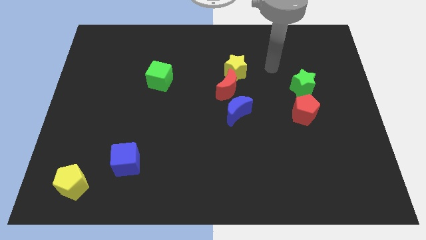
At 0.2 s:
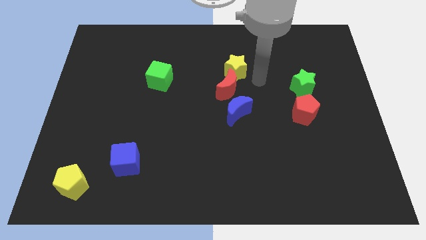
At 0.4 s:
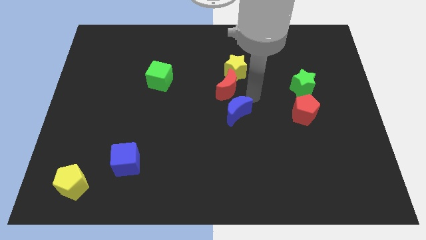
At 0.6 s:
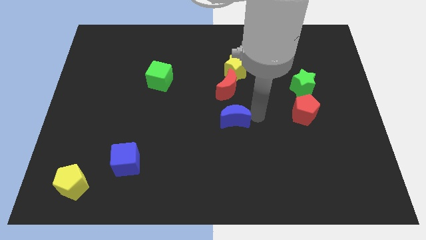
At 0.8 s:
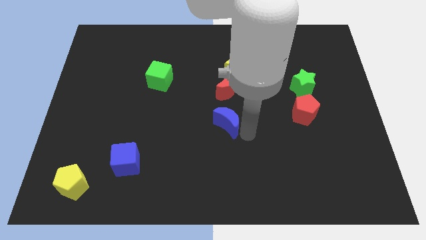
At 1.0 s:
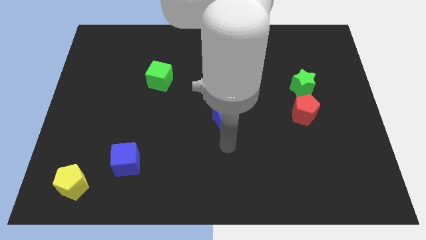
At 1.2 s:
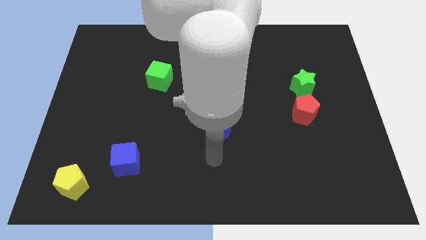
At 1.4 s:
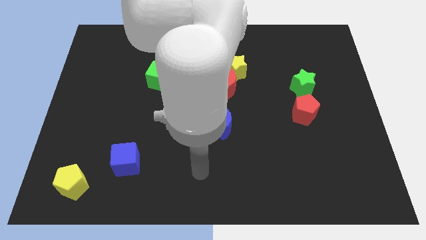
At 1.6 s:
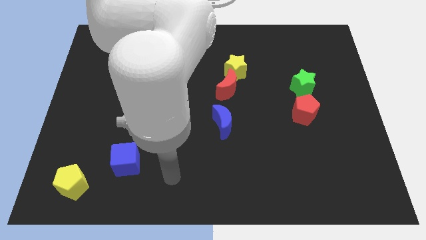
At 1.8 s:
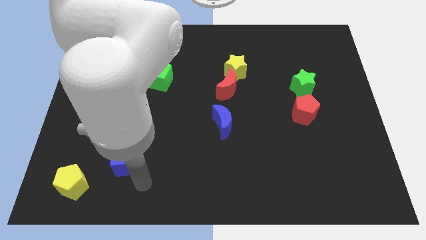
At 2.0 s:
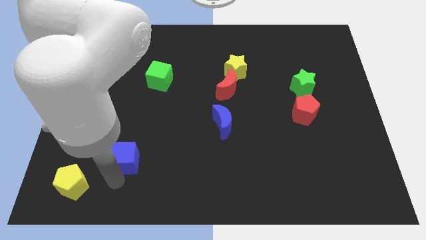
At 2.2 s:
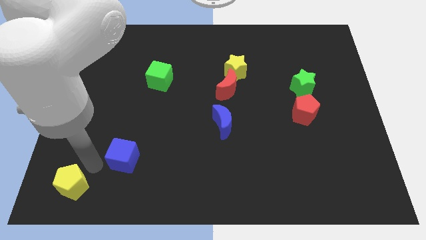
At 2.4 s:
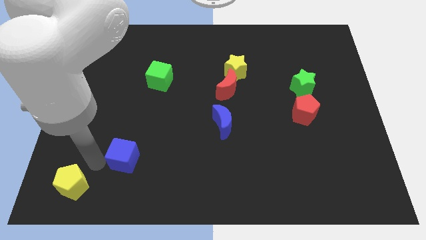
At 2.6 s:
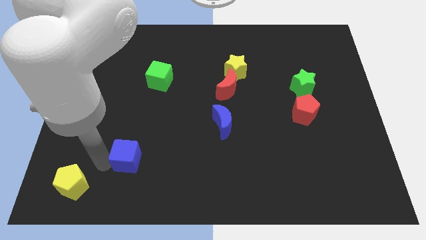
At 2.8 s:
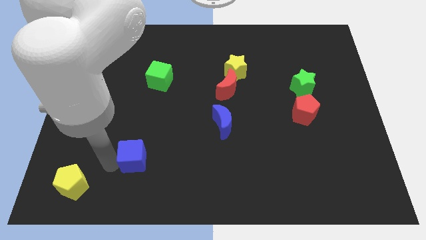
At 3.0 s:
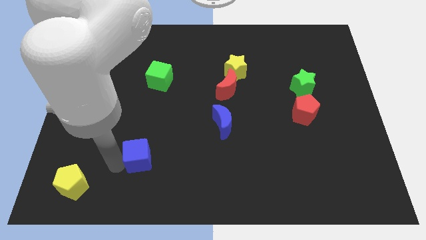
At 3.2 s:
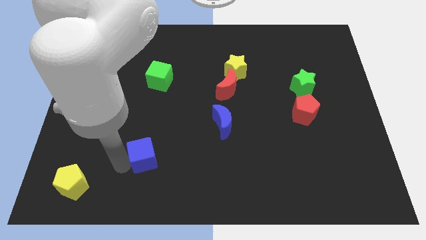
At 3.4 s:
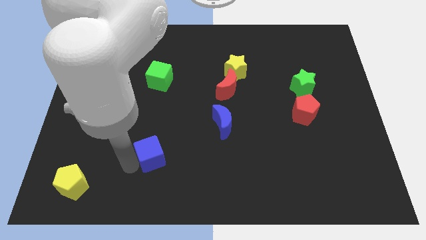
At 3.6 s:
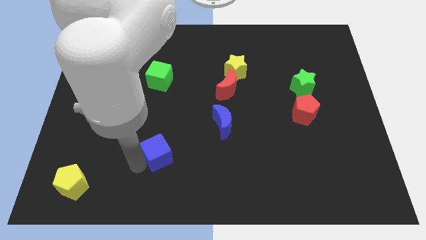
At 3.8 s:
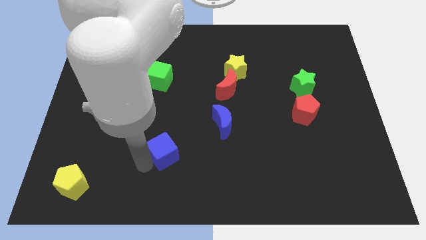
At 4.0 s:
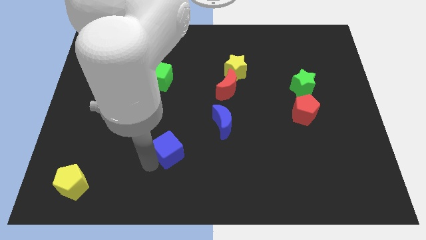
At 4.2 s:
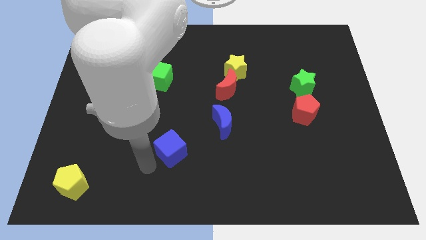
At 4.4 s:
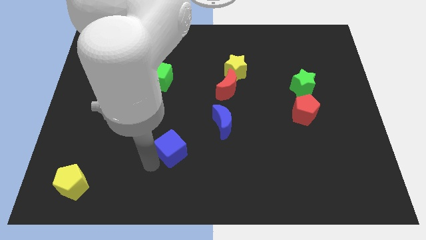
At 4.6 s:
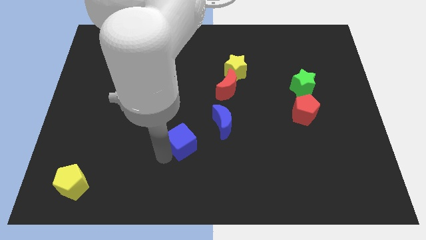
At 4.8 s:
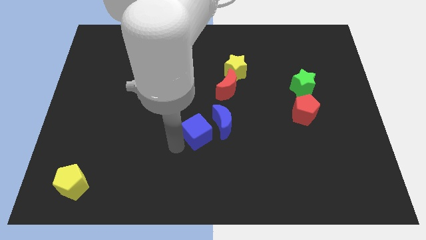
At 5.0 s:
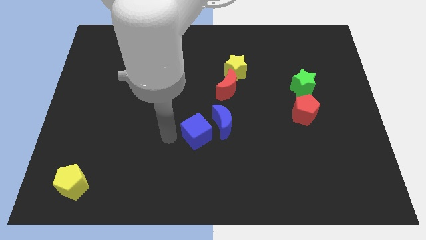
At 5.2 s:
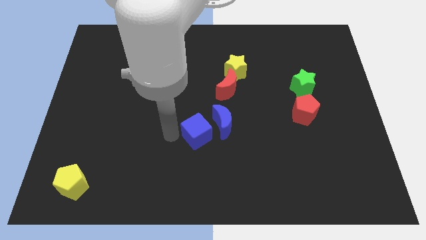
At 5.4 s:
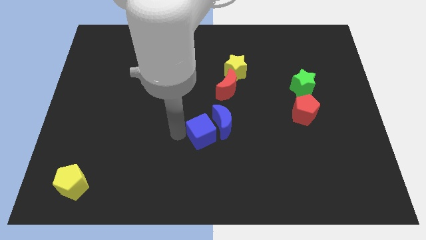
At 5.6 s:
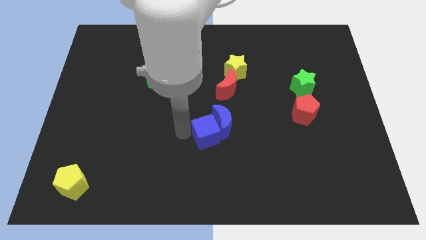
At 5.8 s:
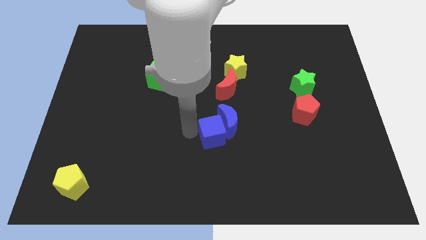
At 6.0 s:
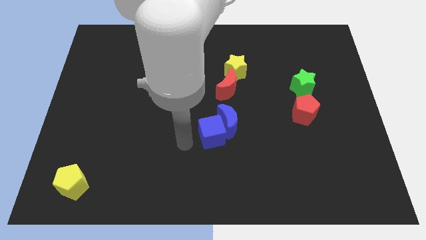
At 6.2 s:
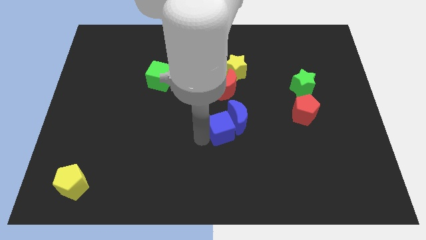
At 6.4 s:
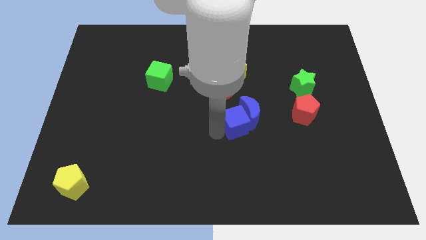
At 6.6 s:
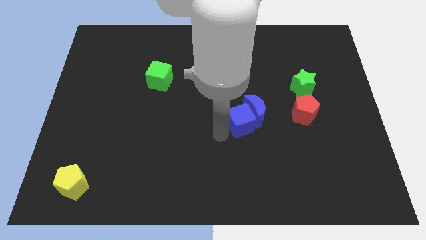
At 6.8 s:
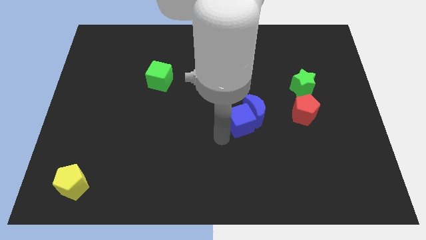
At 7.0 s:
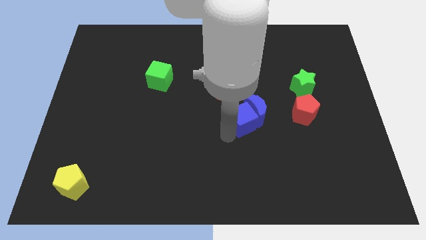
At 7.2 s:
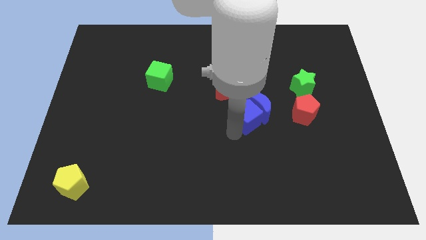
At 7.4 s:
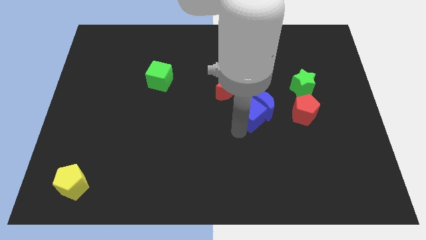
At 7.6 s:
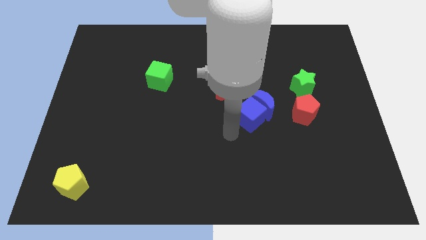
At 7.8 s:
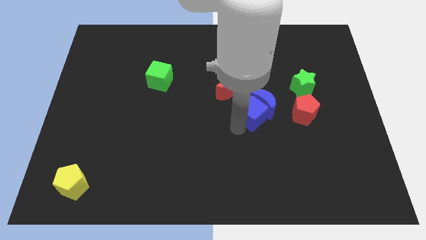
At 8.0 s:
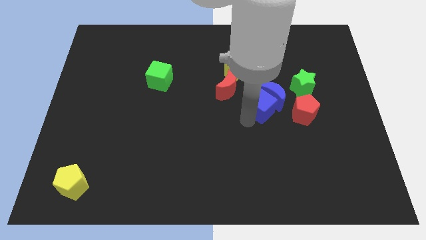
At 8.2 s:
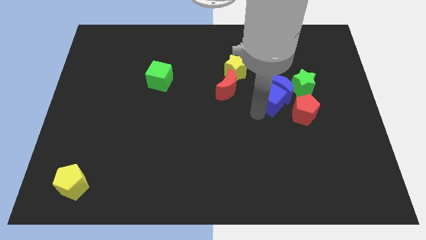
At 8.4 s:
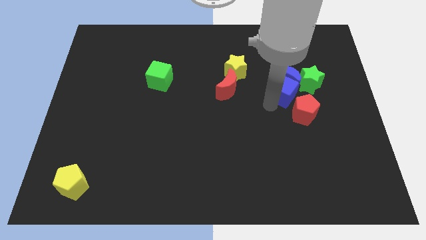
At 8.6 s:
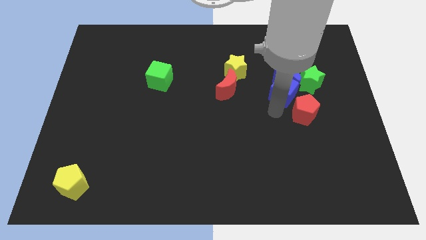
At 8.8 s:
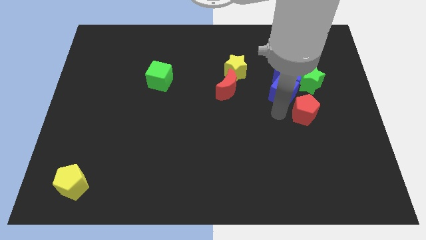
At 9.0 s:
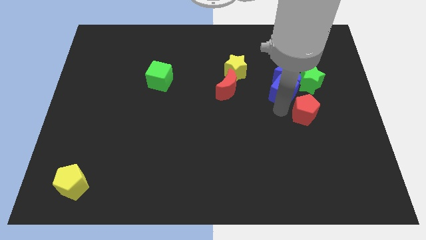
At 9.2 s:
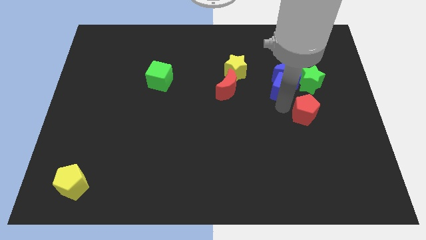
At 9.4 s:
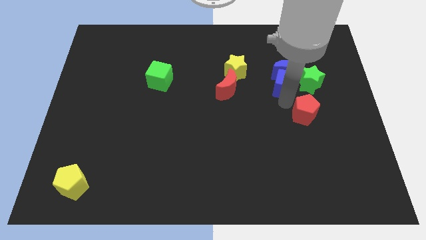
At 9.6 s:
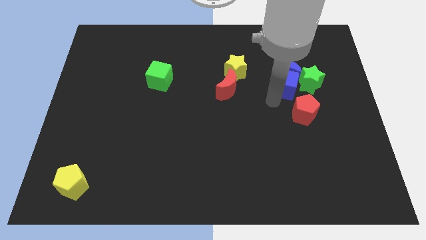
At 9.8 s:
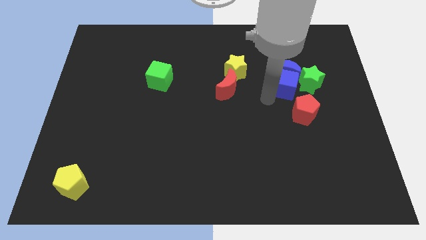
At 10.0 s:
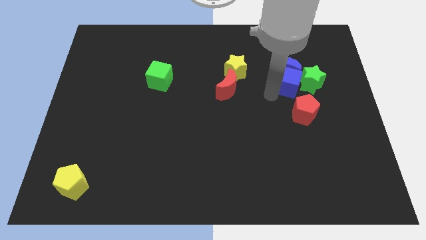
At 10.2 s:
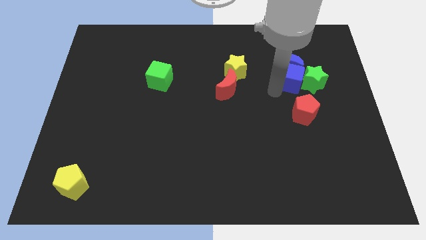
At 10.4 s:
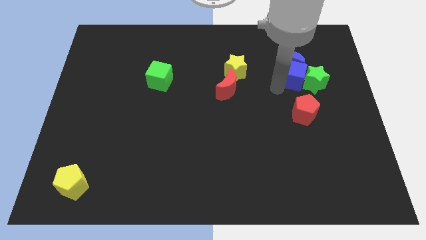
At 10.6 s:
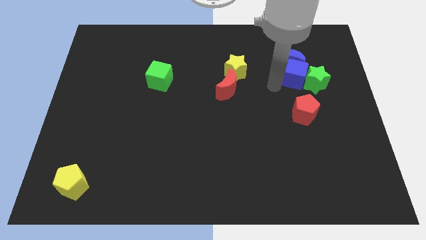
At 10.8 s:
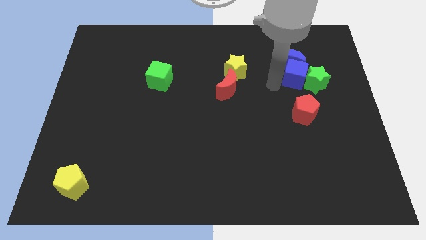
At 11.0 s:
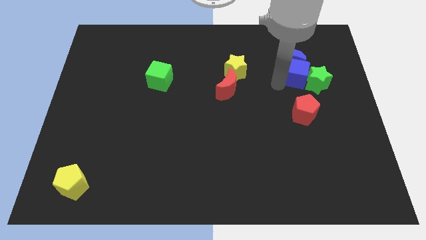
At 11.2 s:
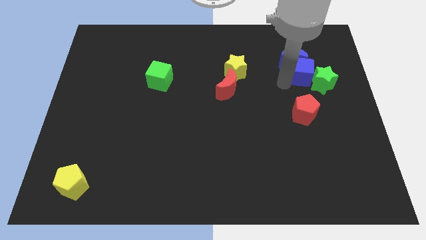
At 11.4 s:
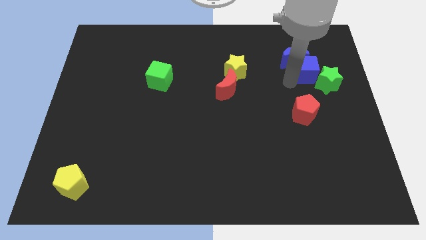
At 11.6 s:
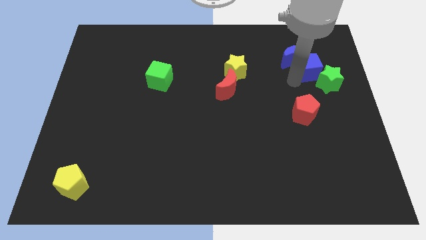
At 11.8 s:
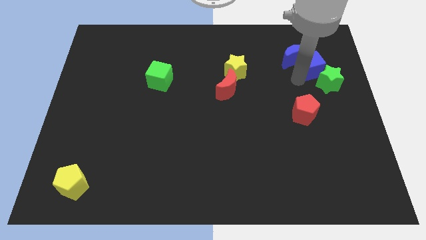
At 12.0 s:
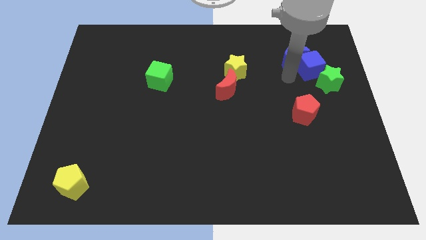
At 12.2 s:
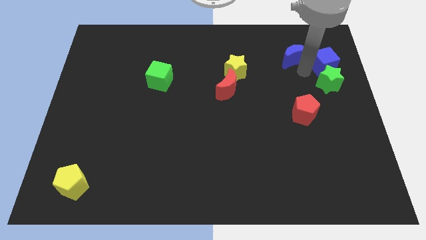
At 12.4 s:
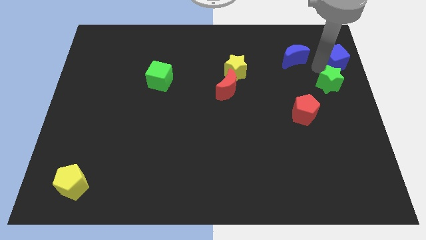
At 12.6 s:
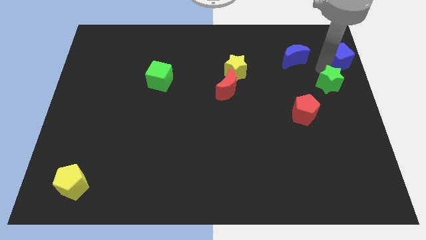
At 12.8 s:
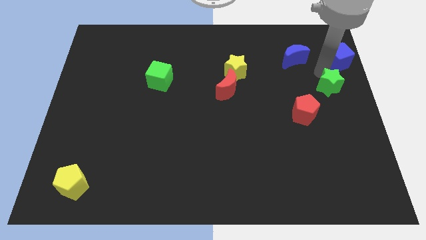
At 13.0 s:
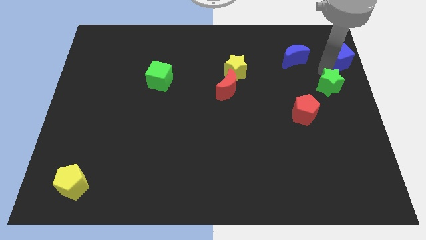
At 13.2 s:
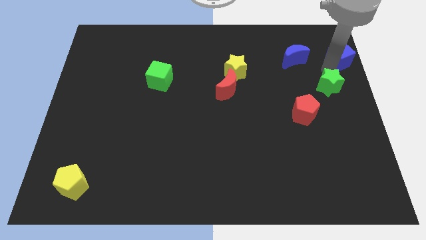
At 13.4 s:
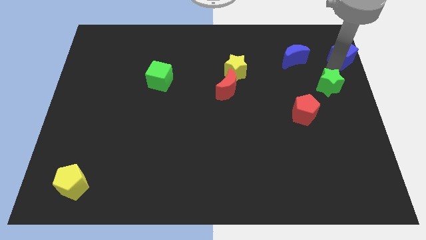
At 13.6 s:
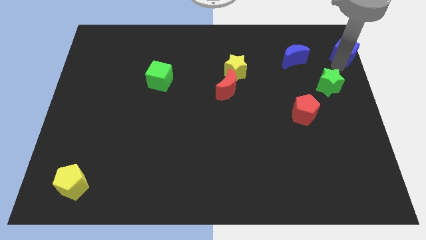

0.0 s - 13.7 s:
put the blue cube to the top right of the board
